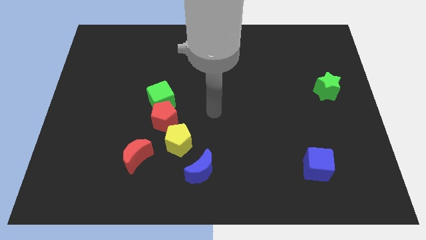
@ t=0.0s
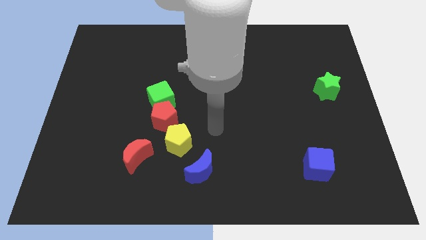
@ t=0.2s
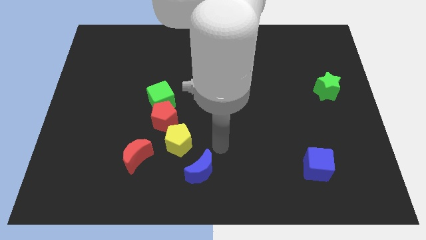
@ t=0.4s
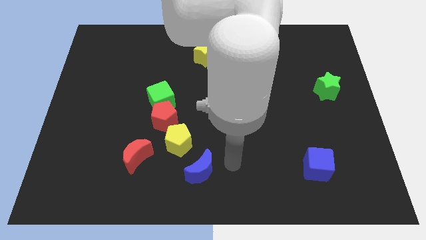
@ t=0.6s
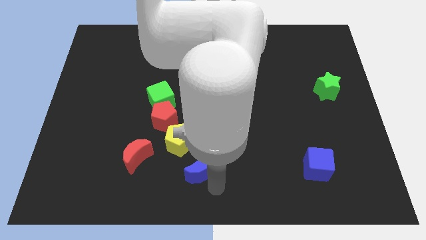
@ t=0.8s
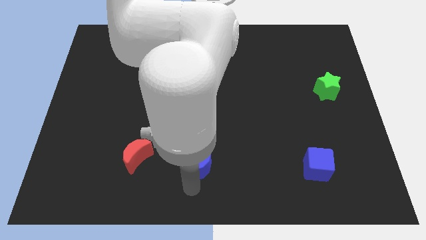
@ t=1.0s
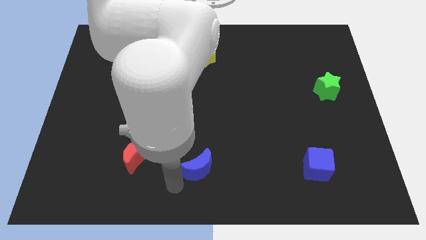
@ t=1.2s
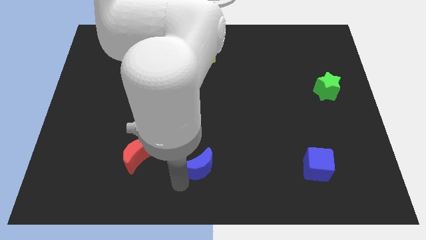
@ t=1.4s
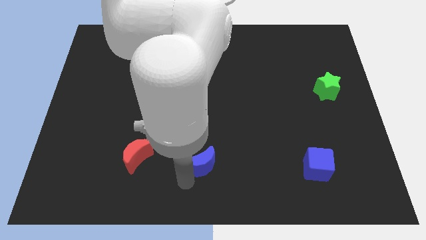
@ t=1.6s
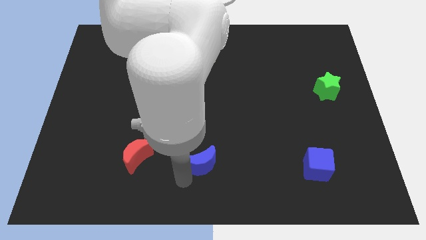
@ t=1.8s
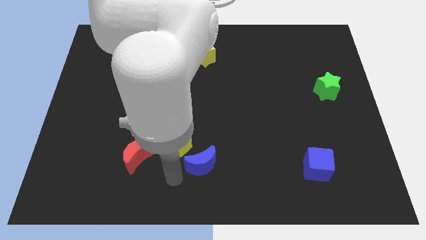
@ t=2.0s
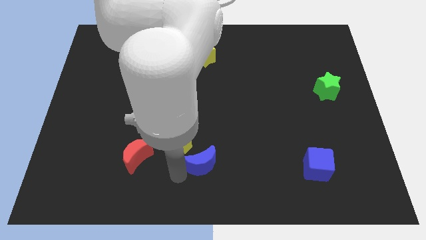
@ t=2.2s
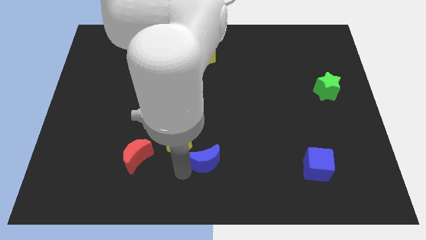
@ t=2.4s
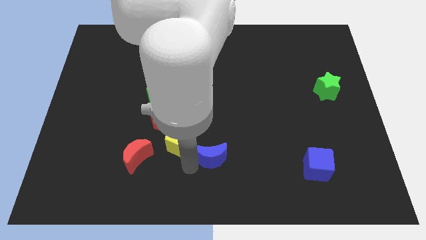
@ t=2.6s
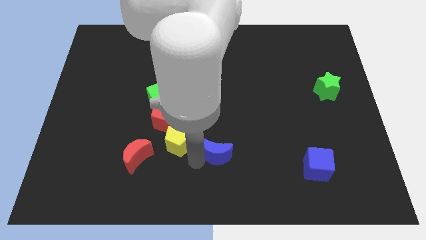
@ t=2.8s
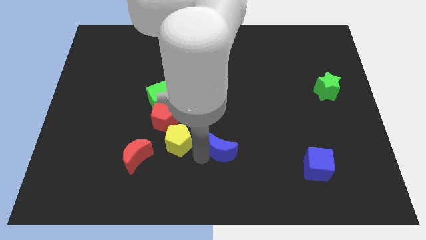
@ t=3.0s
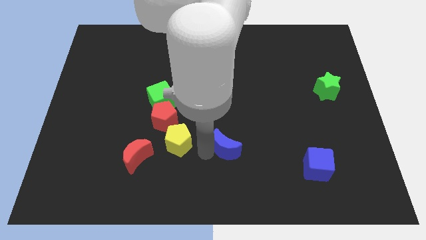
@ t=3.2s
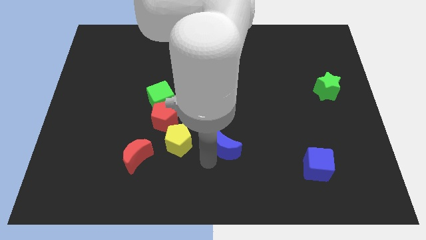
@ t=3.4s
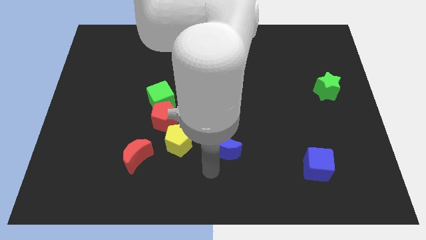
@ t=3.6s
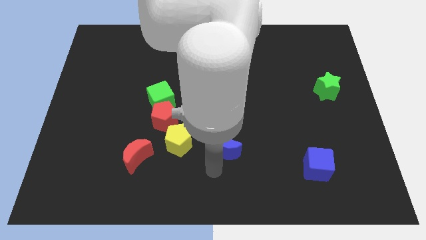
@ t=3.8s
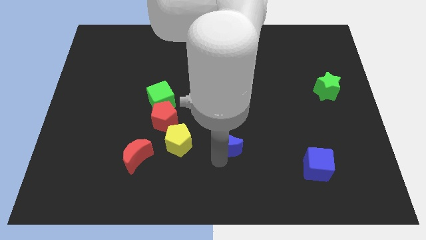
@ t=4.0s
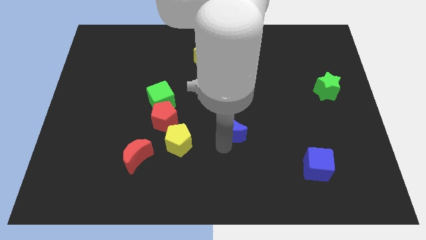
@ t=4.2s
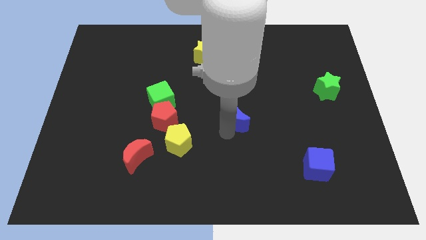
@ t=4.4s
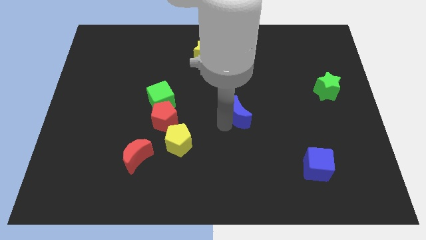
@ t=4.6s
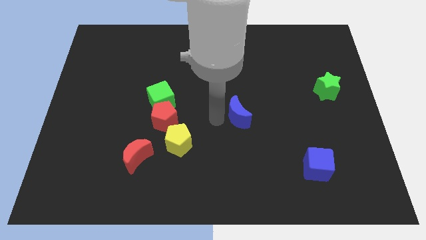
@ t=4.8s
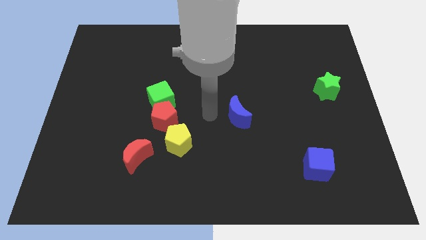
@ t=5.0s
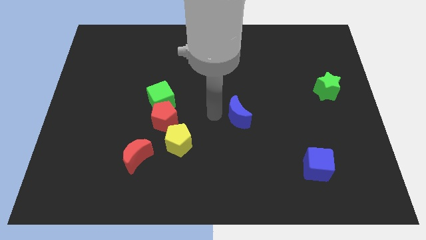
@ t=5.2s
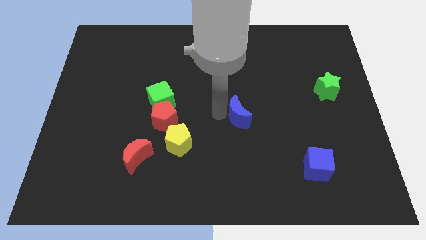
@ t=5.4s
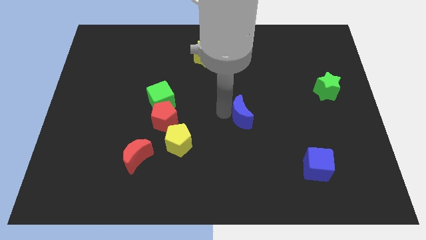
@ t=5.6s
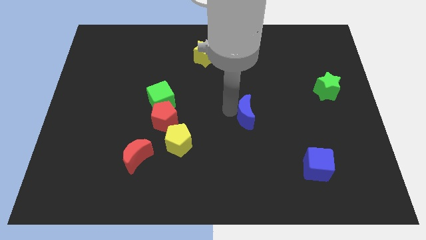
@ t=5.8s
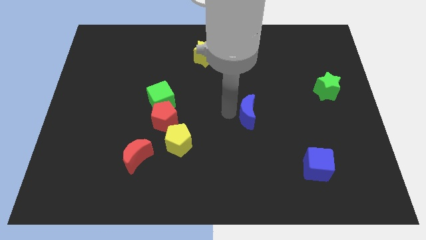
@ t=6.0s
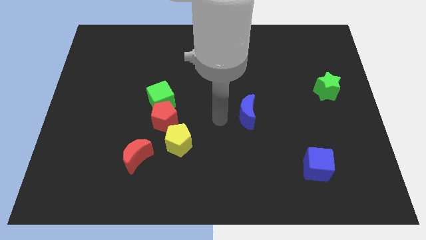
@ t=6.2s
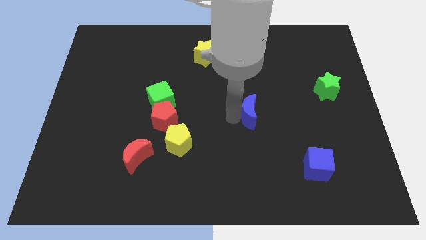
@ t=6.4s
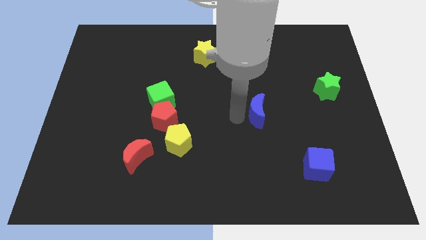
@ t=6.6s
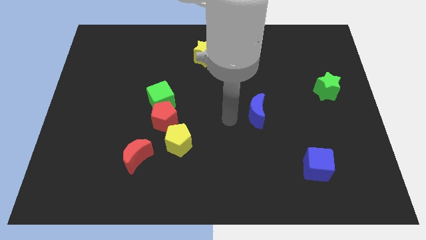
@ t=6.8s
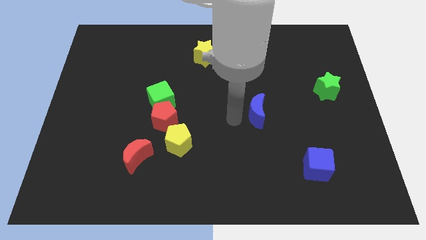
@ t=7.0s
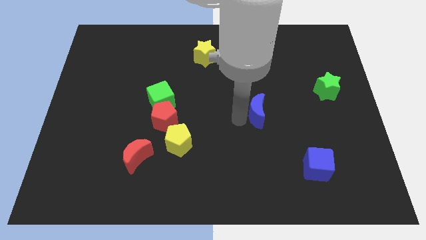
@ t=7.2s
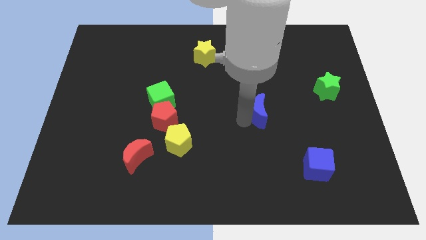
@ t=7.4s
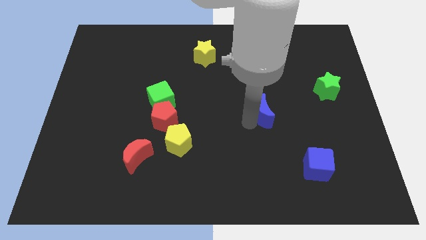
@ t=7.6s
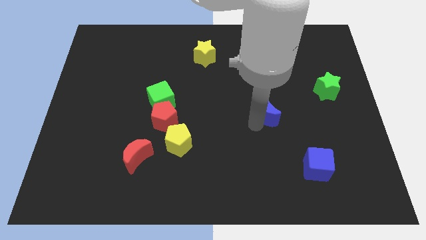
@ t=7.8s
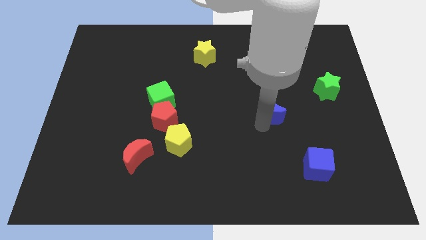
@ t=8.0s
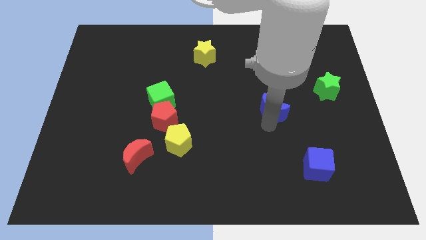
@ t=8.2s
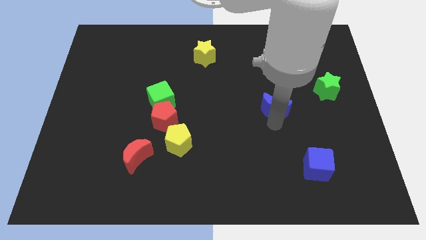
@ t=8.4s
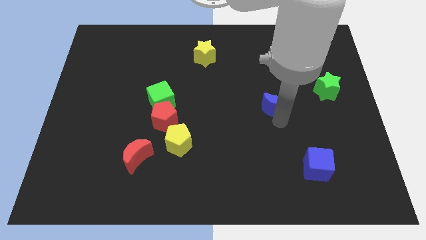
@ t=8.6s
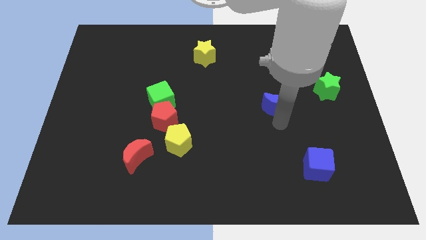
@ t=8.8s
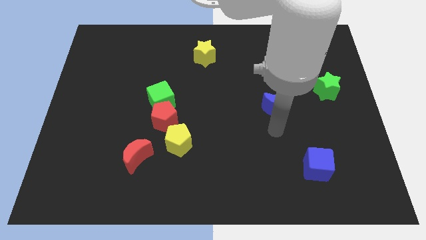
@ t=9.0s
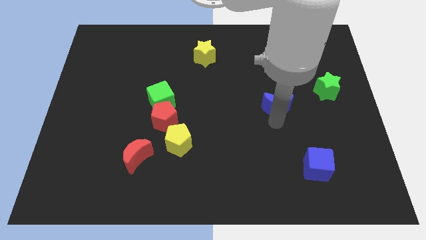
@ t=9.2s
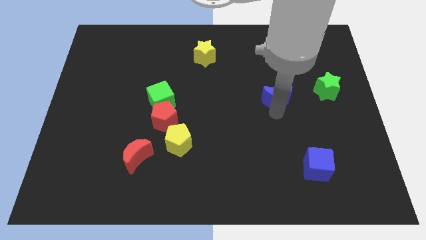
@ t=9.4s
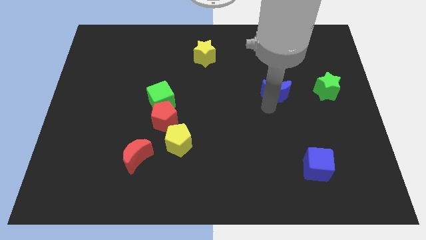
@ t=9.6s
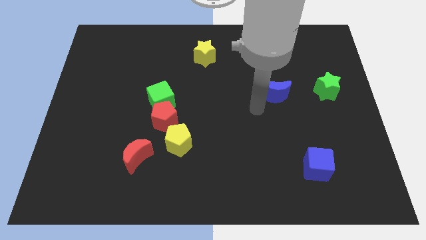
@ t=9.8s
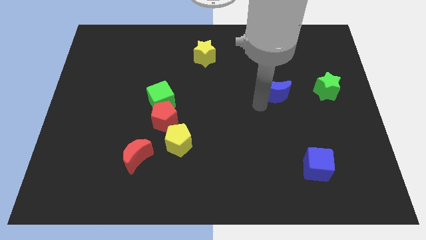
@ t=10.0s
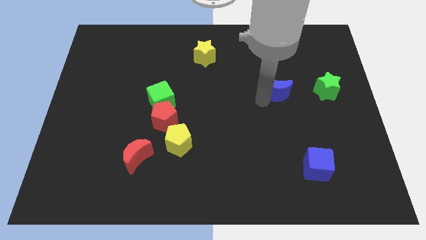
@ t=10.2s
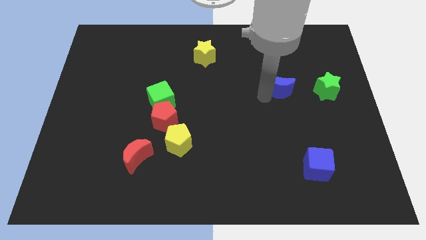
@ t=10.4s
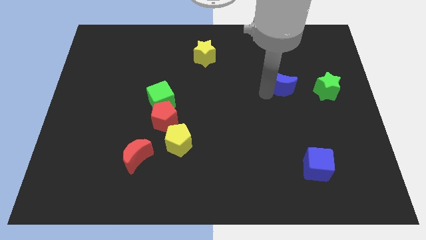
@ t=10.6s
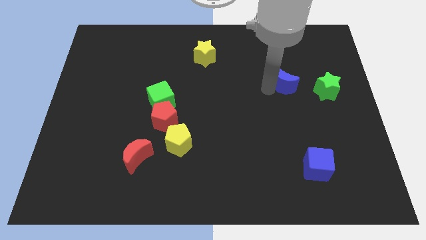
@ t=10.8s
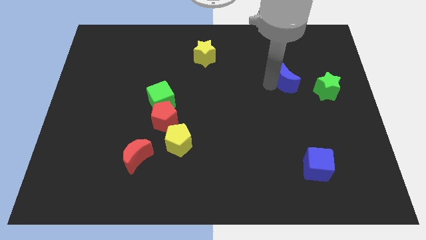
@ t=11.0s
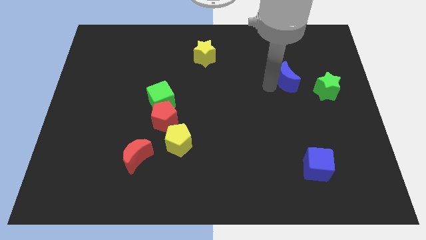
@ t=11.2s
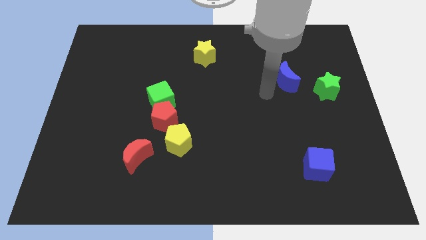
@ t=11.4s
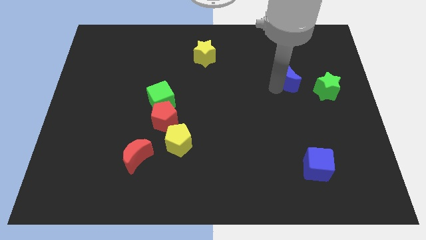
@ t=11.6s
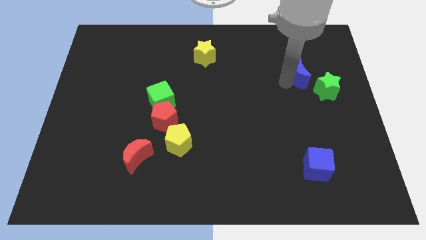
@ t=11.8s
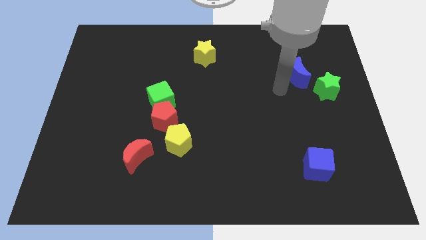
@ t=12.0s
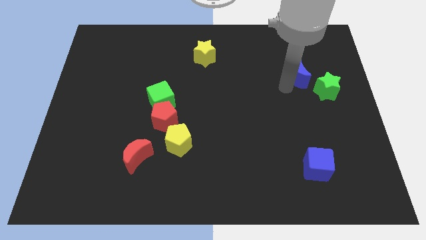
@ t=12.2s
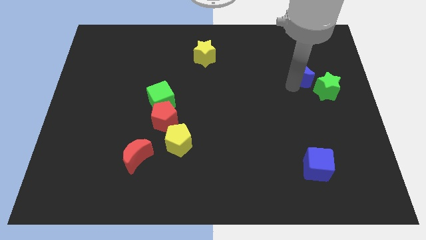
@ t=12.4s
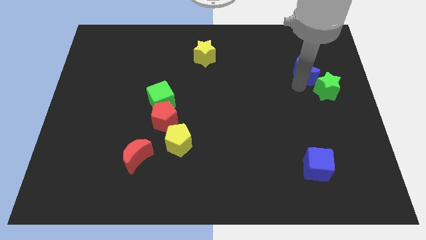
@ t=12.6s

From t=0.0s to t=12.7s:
slide the blue moon above the green star

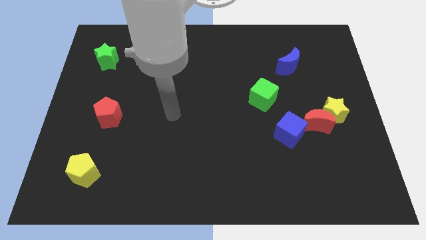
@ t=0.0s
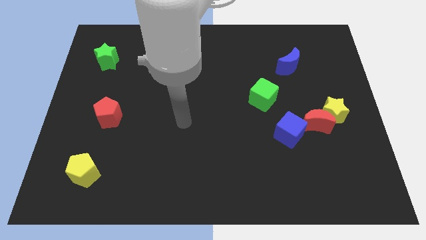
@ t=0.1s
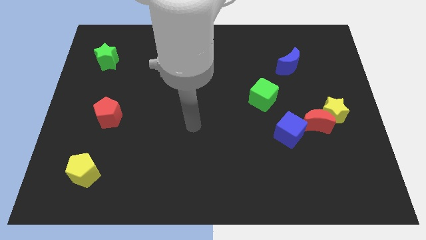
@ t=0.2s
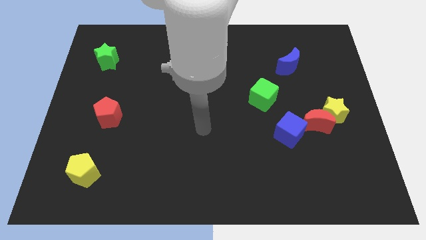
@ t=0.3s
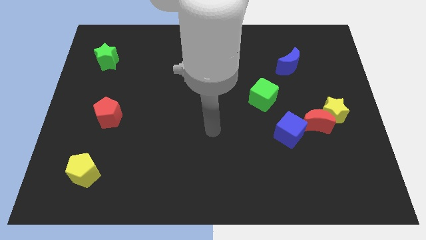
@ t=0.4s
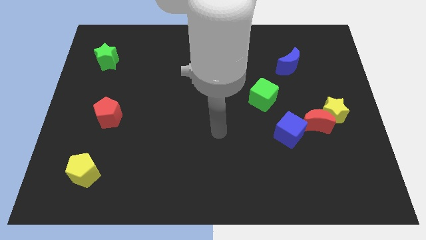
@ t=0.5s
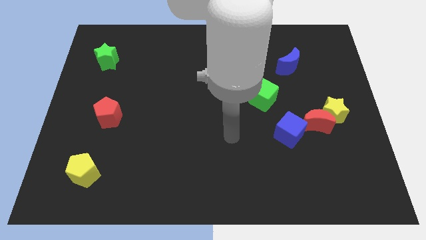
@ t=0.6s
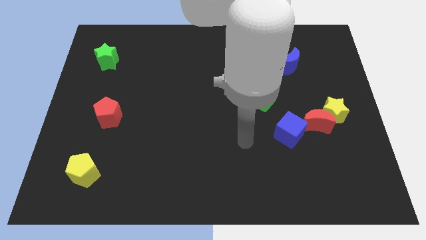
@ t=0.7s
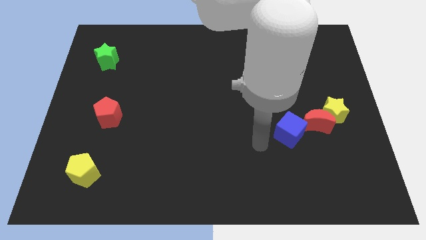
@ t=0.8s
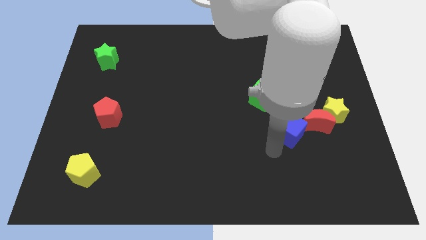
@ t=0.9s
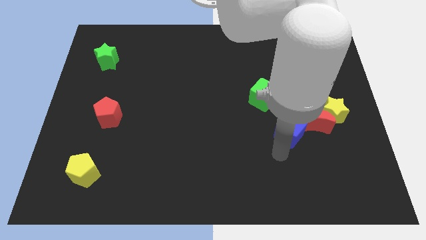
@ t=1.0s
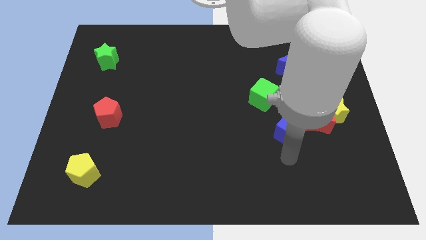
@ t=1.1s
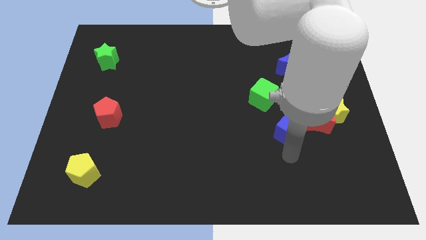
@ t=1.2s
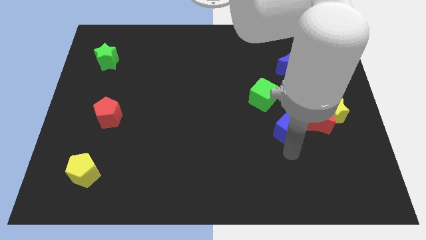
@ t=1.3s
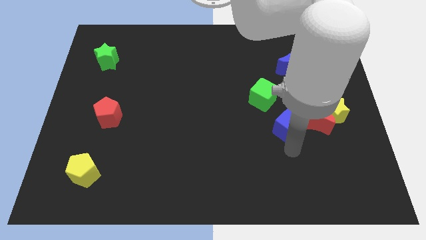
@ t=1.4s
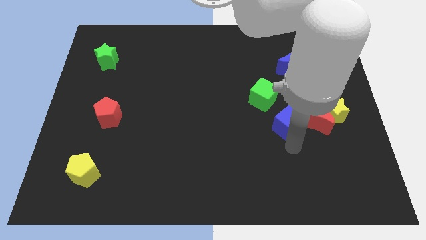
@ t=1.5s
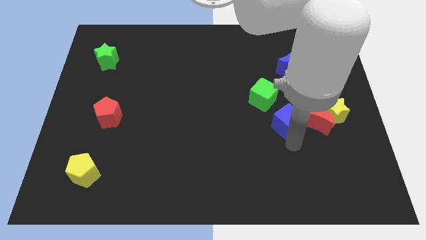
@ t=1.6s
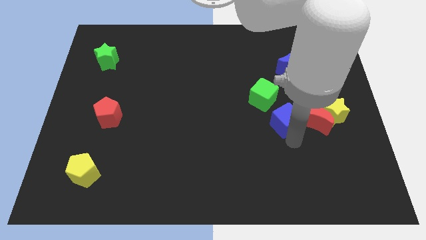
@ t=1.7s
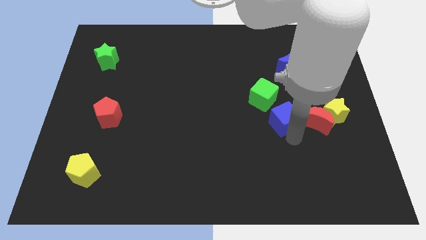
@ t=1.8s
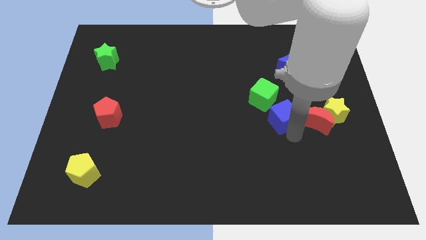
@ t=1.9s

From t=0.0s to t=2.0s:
move the blue cube to the top left side of the red moon
